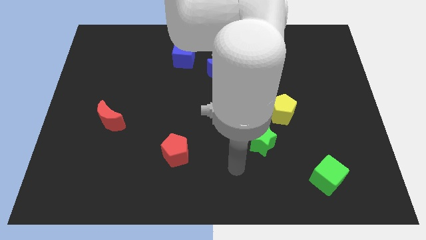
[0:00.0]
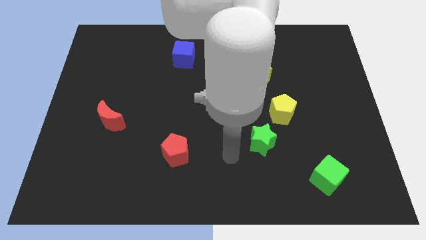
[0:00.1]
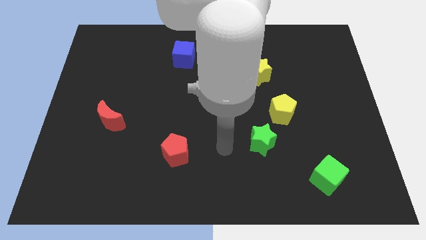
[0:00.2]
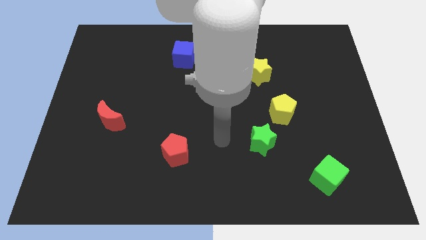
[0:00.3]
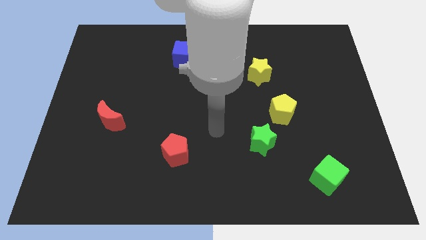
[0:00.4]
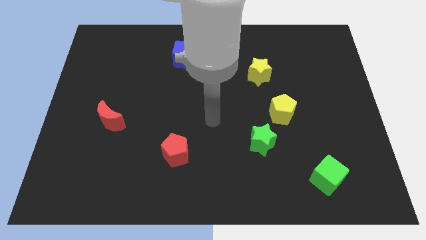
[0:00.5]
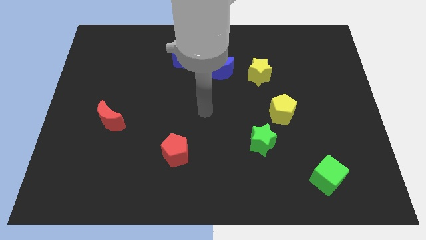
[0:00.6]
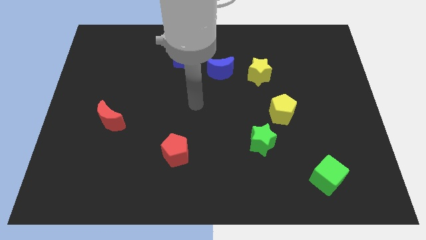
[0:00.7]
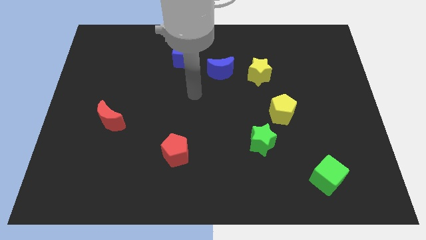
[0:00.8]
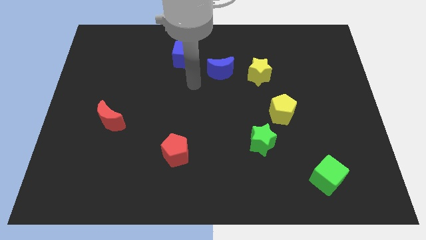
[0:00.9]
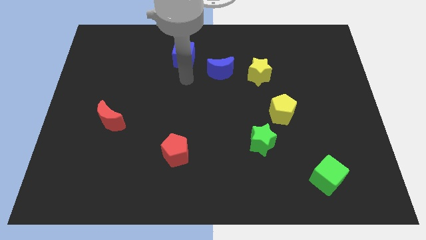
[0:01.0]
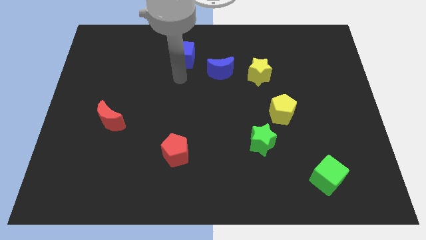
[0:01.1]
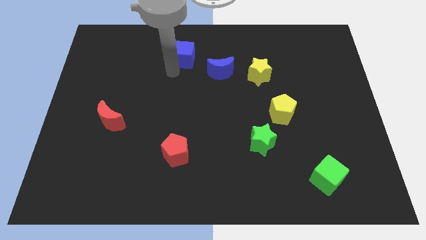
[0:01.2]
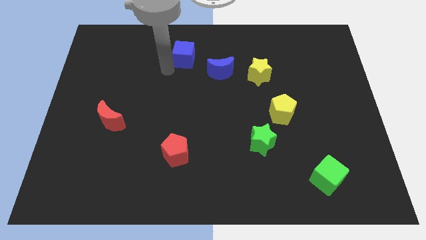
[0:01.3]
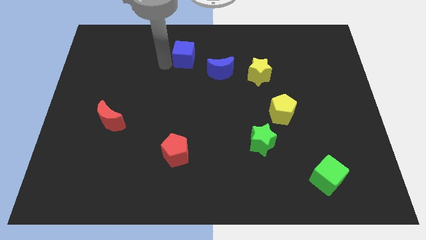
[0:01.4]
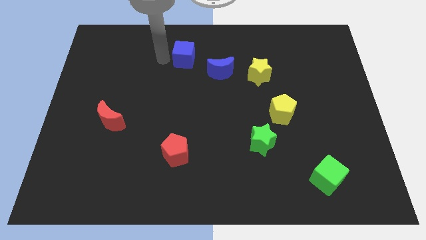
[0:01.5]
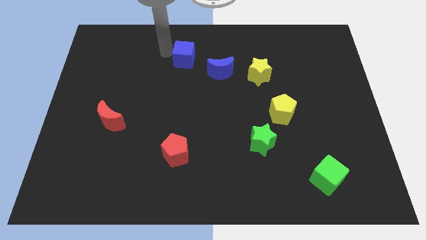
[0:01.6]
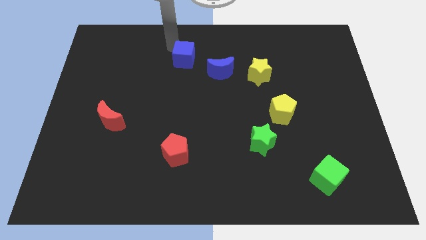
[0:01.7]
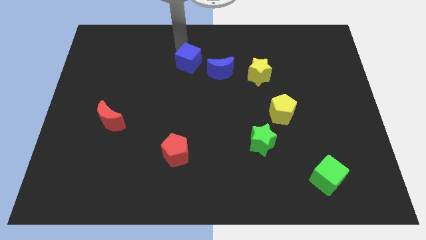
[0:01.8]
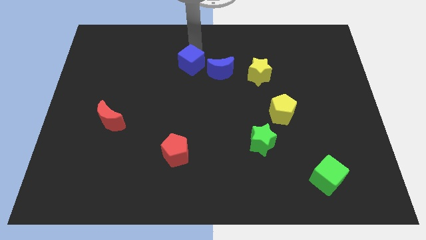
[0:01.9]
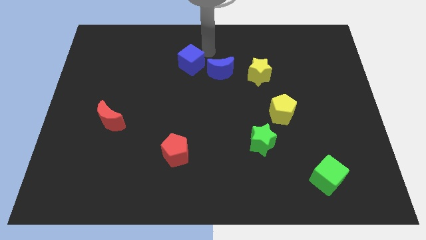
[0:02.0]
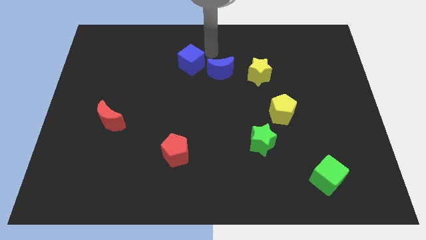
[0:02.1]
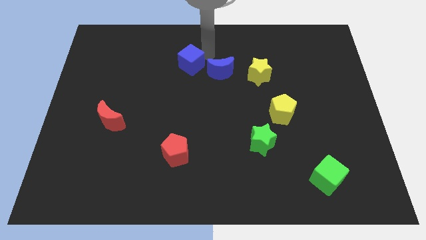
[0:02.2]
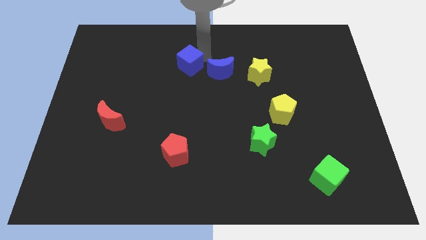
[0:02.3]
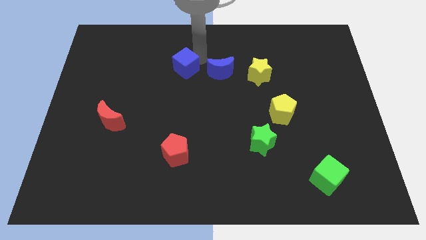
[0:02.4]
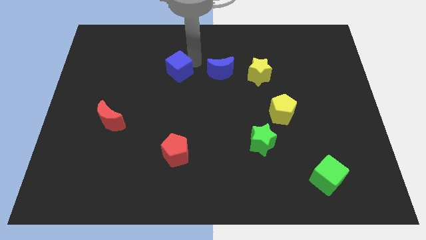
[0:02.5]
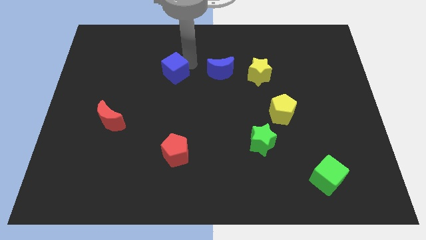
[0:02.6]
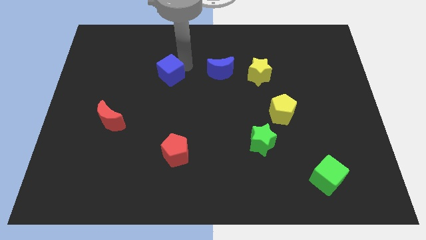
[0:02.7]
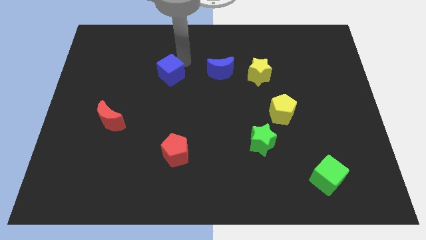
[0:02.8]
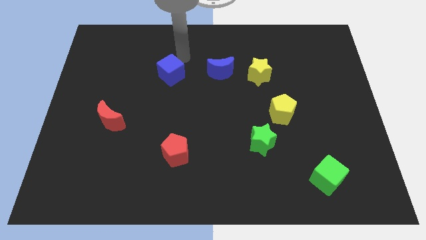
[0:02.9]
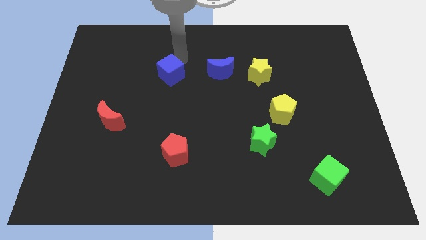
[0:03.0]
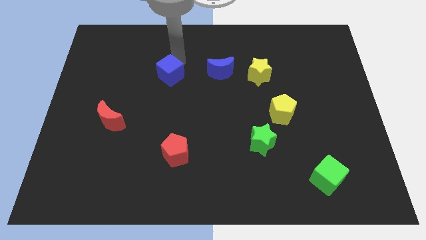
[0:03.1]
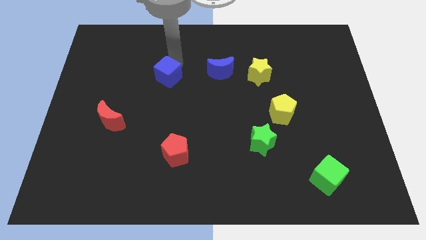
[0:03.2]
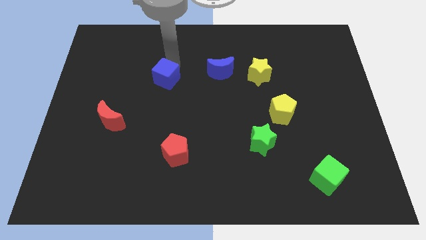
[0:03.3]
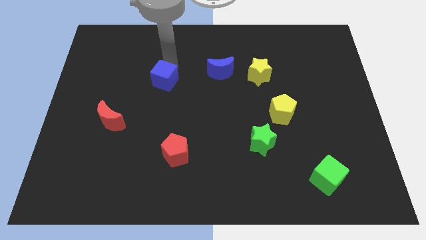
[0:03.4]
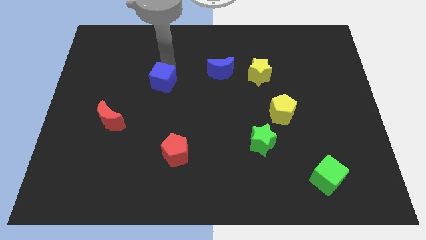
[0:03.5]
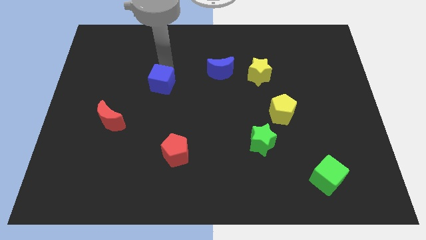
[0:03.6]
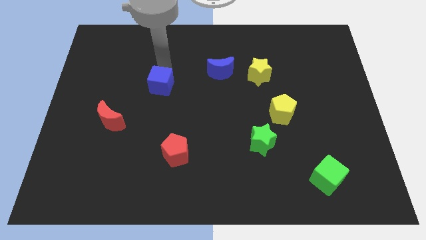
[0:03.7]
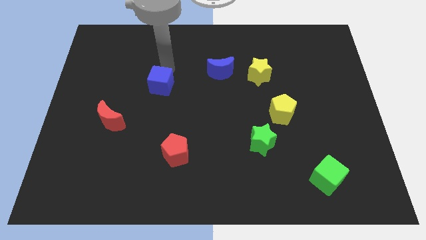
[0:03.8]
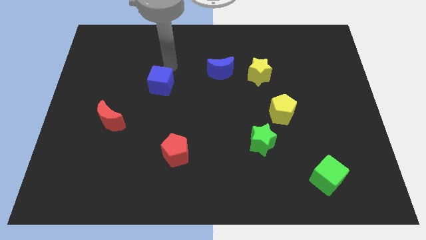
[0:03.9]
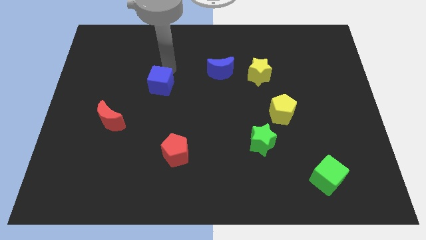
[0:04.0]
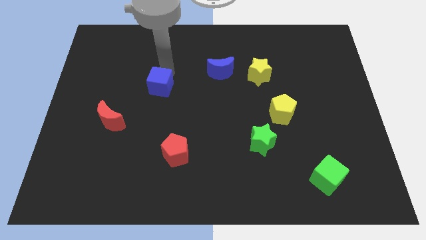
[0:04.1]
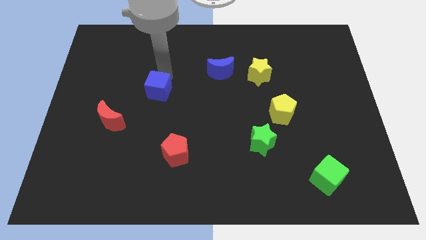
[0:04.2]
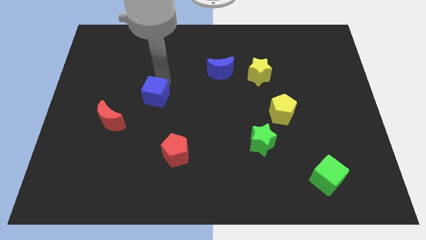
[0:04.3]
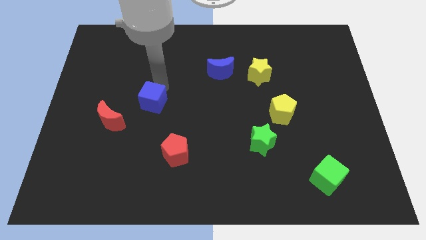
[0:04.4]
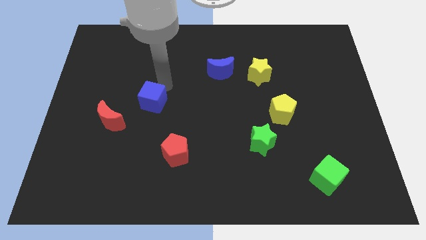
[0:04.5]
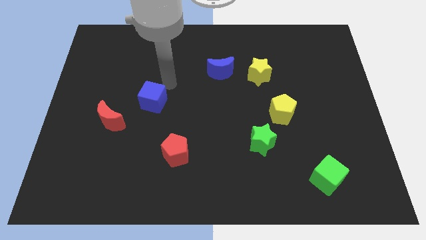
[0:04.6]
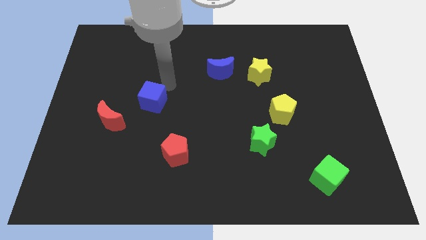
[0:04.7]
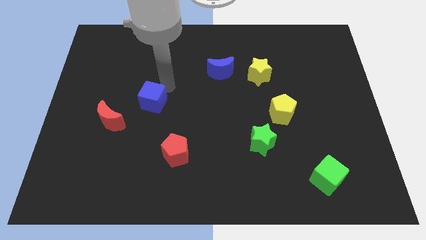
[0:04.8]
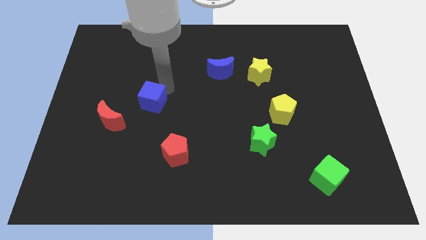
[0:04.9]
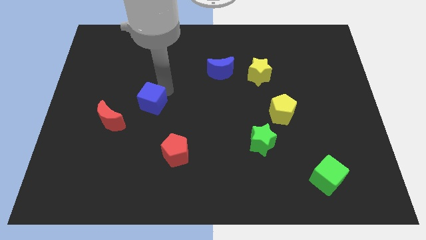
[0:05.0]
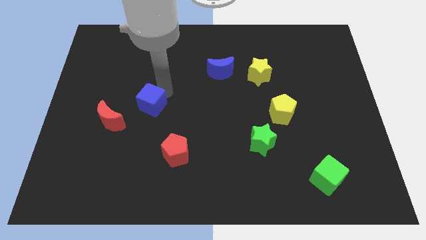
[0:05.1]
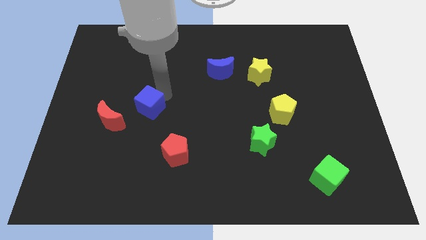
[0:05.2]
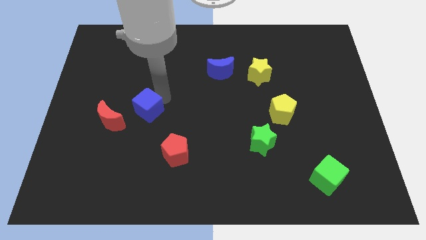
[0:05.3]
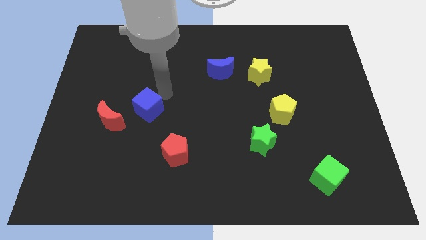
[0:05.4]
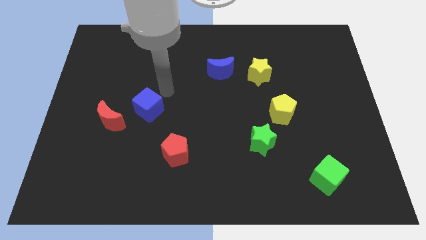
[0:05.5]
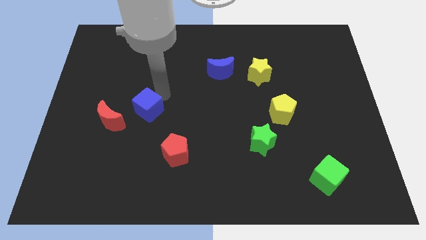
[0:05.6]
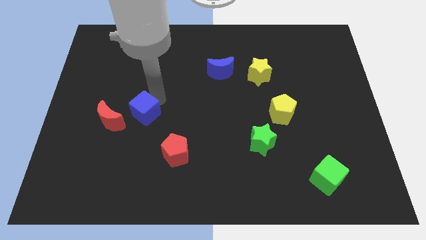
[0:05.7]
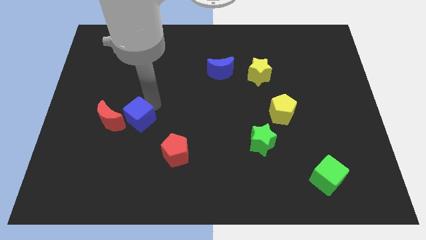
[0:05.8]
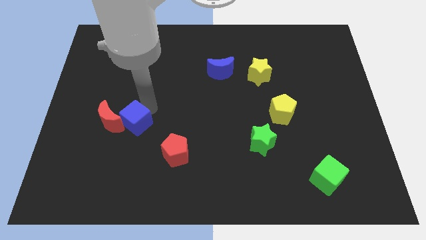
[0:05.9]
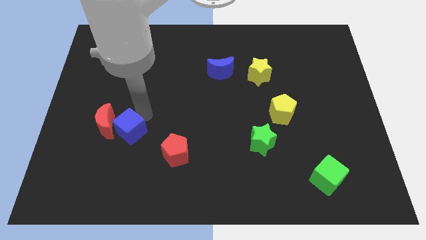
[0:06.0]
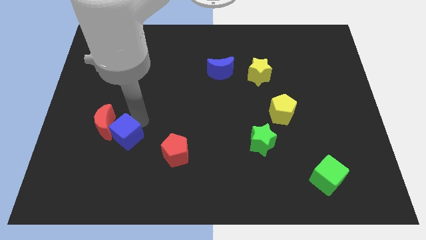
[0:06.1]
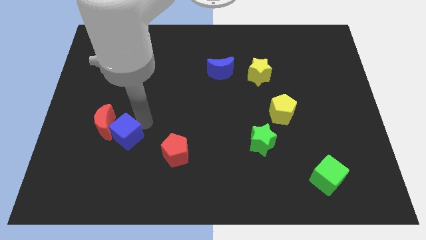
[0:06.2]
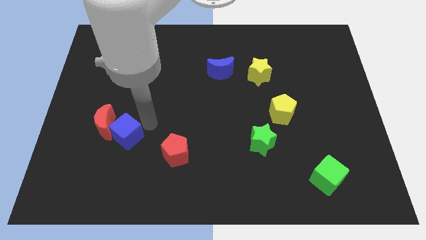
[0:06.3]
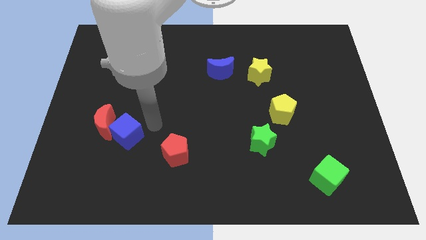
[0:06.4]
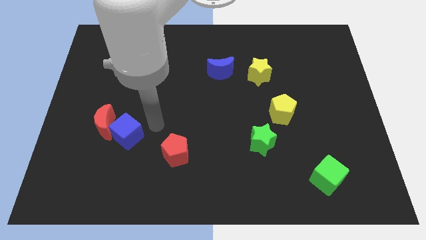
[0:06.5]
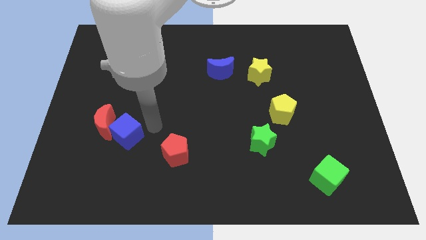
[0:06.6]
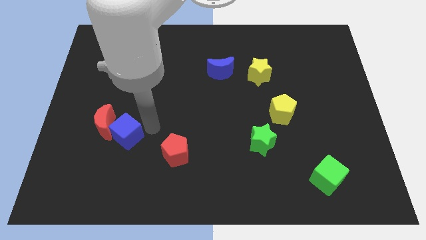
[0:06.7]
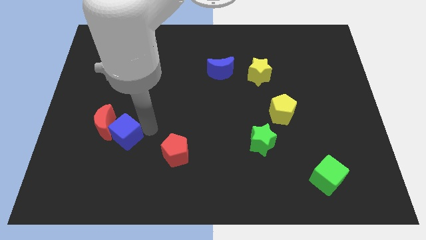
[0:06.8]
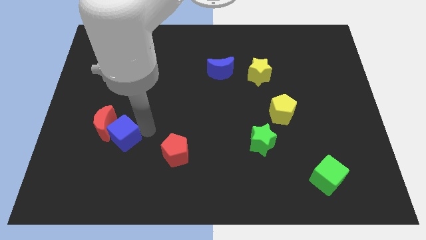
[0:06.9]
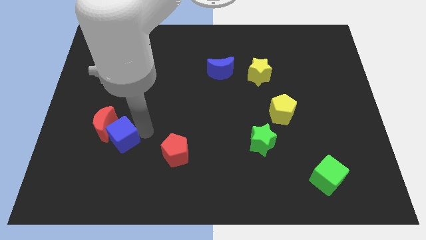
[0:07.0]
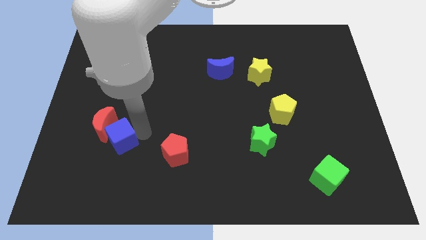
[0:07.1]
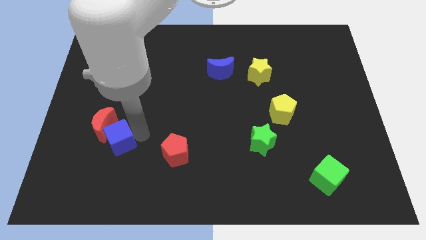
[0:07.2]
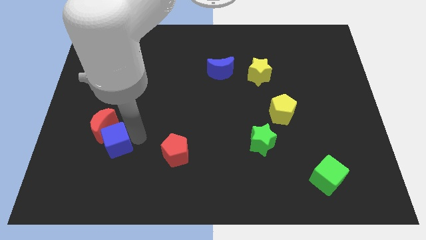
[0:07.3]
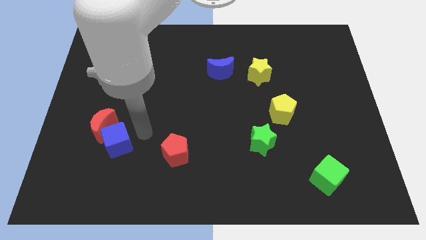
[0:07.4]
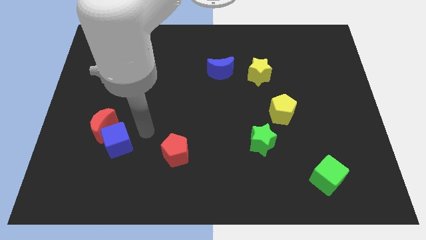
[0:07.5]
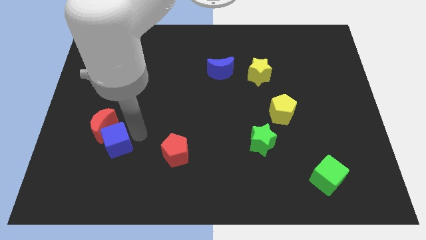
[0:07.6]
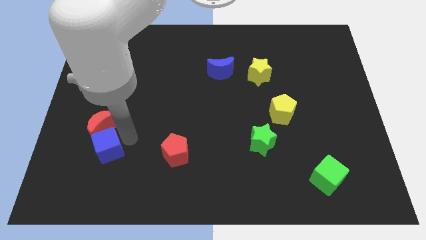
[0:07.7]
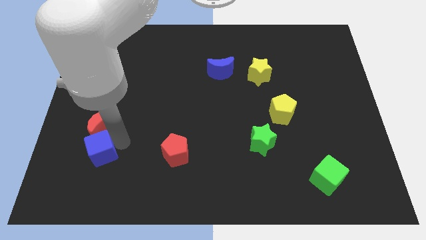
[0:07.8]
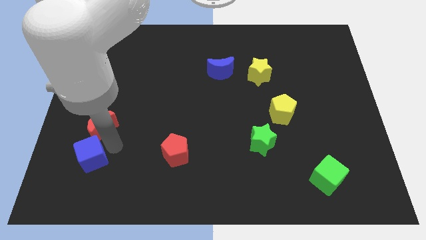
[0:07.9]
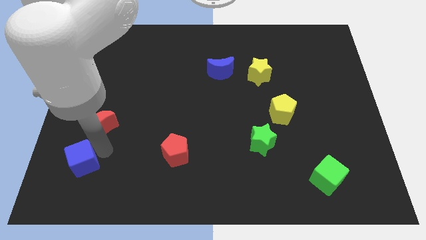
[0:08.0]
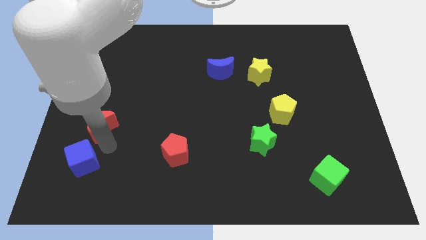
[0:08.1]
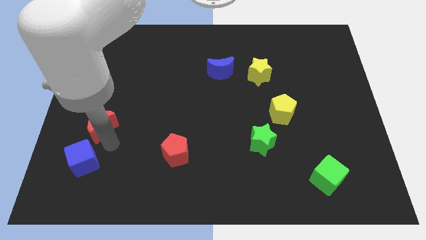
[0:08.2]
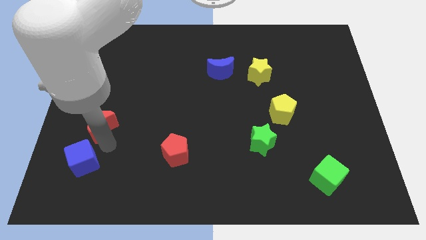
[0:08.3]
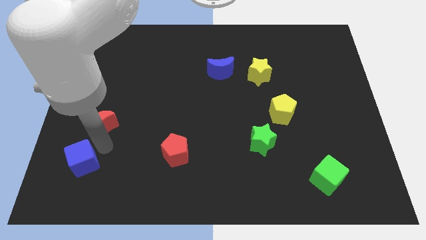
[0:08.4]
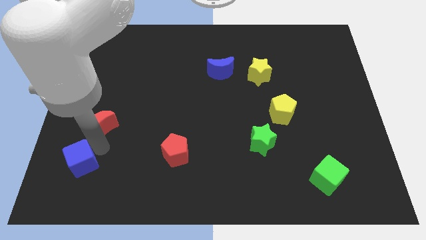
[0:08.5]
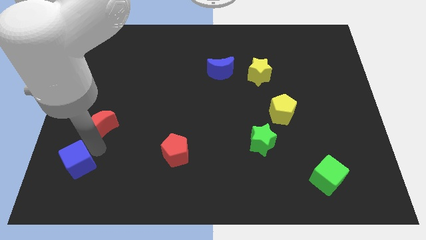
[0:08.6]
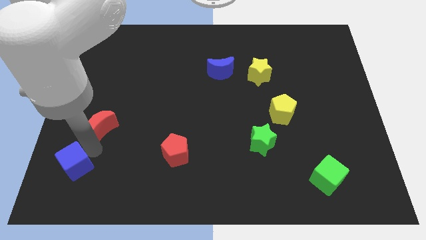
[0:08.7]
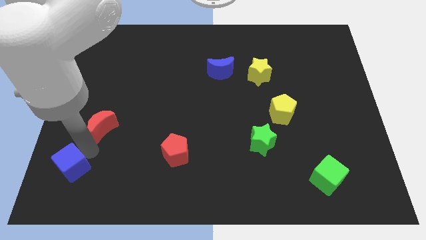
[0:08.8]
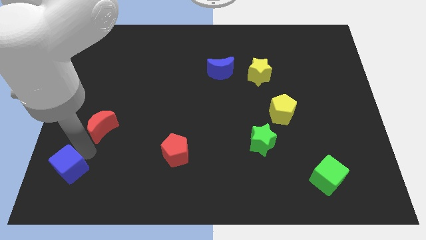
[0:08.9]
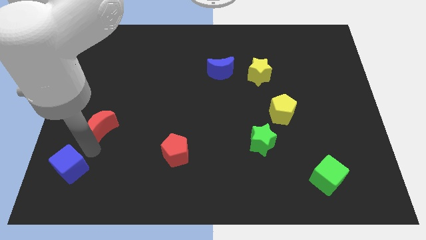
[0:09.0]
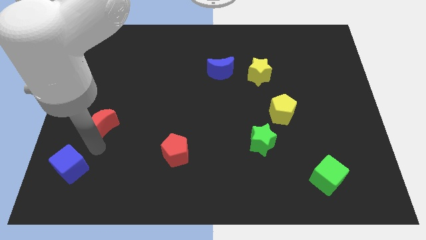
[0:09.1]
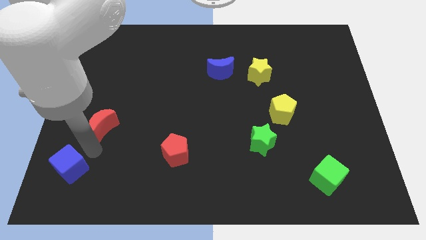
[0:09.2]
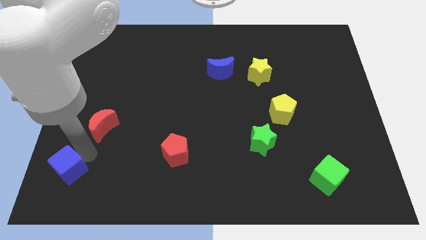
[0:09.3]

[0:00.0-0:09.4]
put the blue cube to the lower left corner
